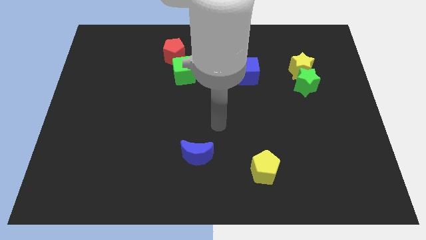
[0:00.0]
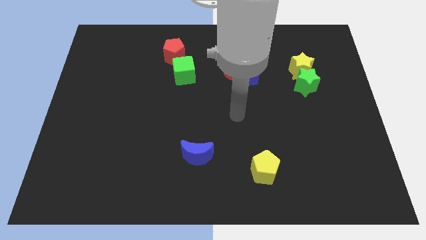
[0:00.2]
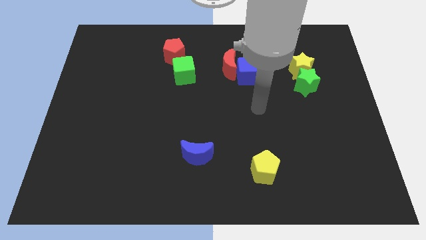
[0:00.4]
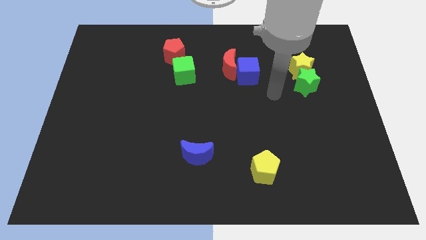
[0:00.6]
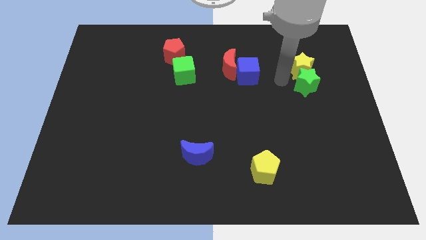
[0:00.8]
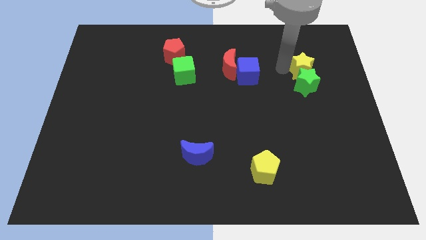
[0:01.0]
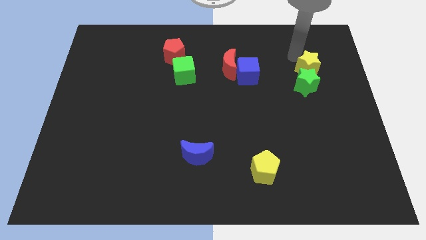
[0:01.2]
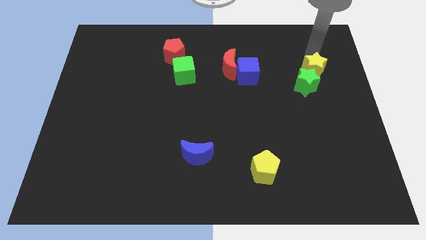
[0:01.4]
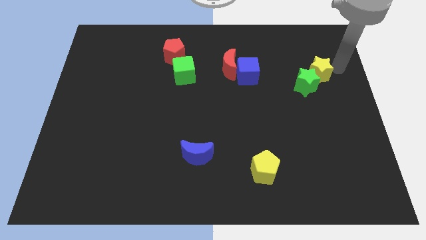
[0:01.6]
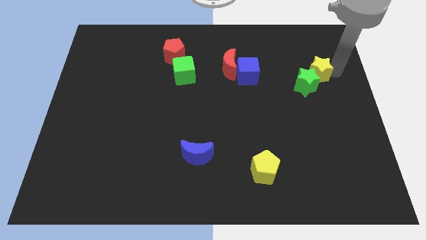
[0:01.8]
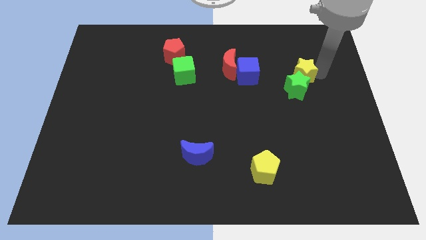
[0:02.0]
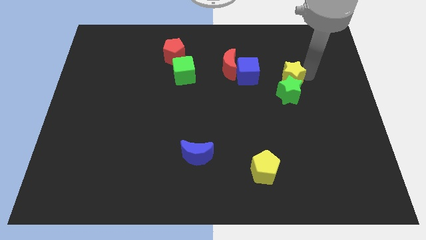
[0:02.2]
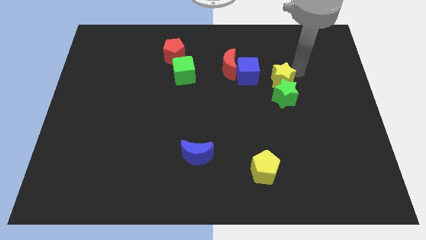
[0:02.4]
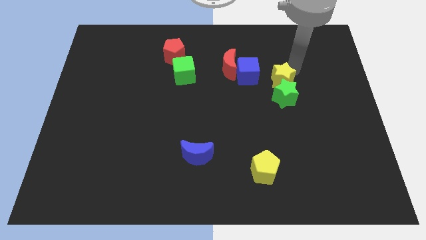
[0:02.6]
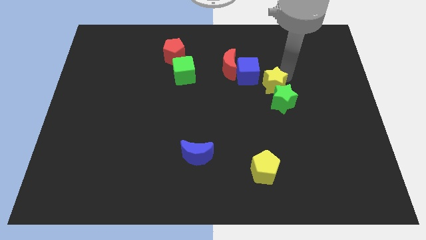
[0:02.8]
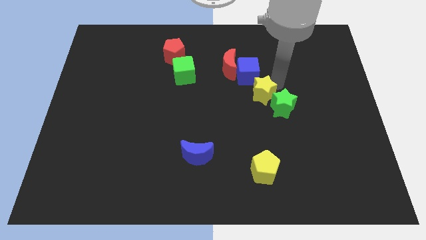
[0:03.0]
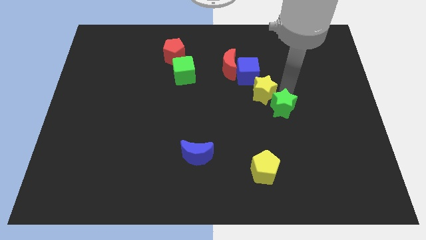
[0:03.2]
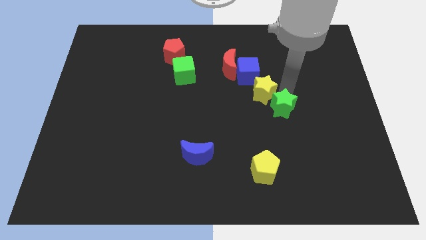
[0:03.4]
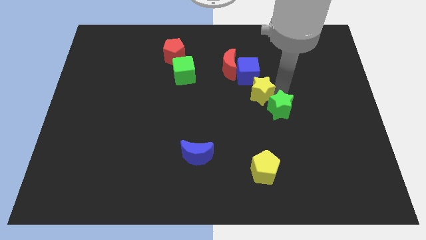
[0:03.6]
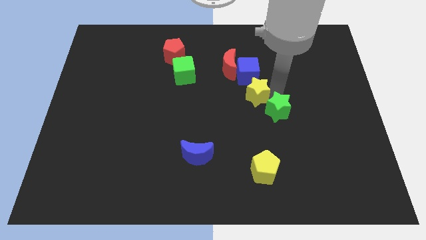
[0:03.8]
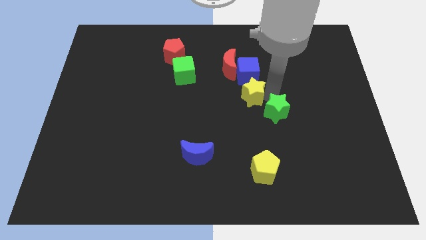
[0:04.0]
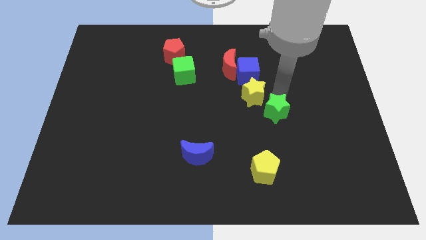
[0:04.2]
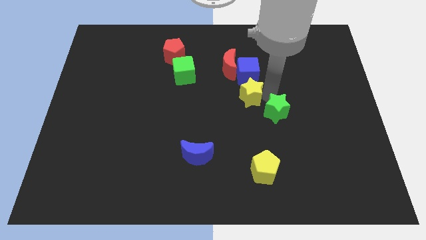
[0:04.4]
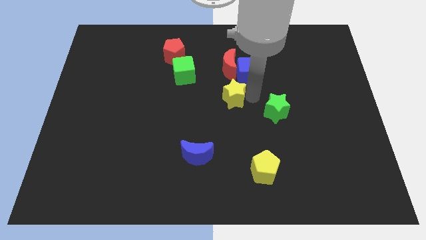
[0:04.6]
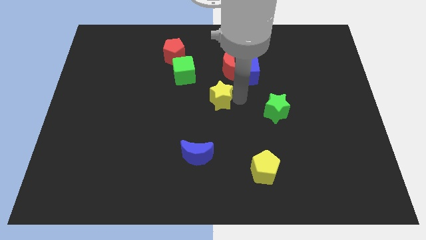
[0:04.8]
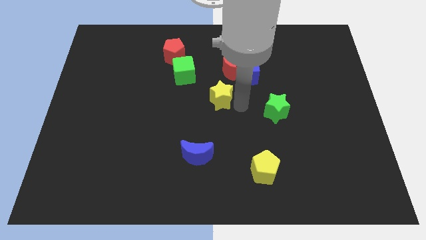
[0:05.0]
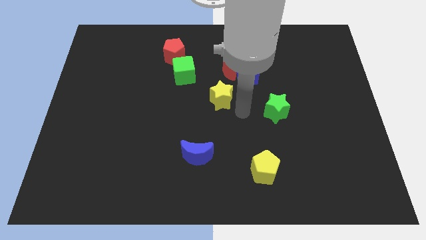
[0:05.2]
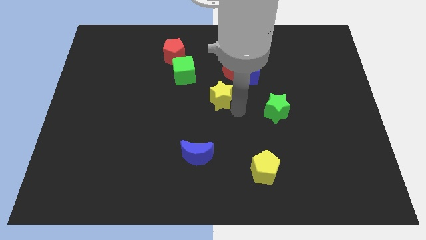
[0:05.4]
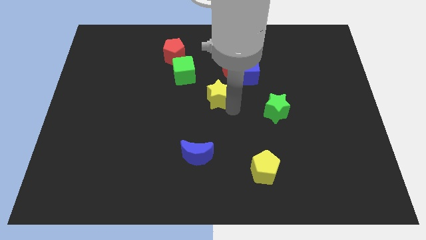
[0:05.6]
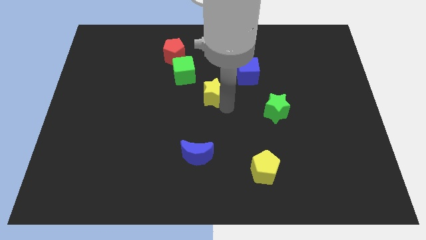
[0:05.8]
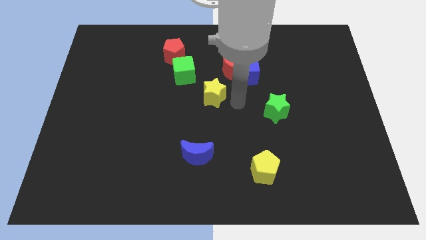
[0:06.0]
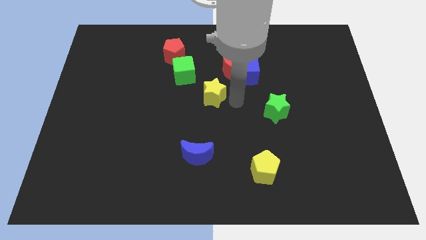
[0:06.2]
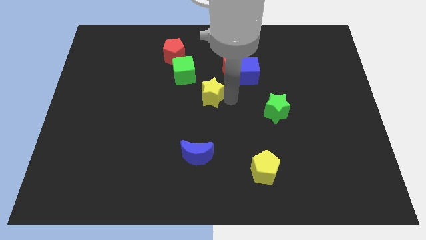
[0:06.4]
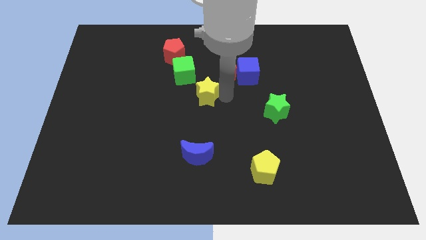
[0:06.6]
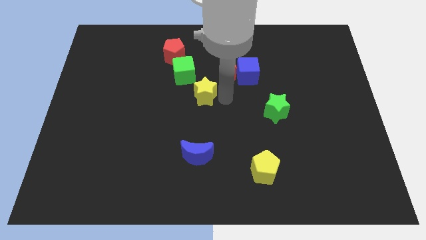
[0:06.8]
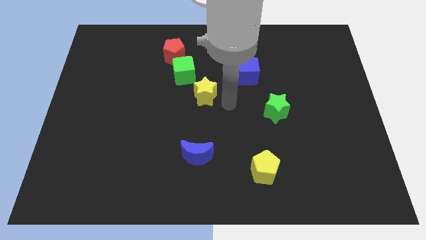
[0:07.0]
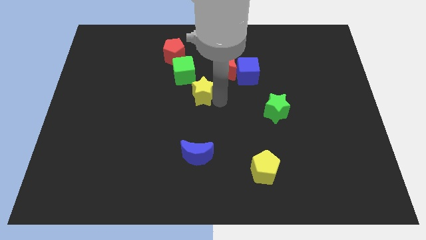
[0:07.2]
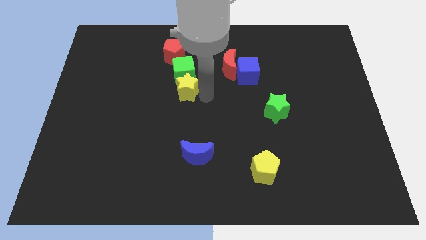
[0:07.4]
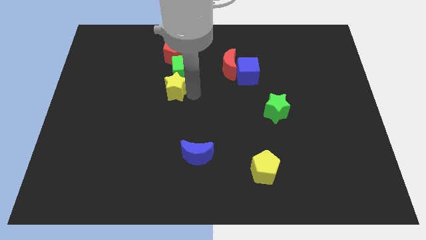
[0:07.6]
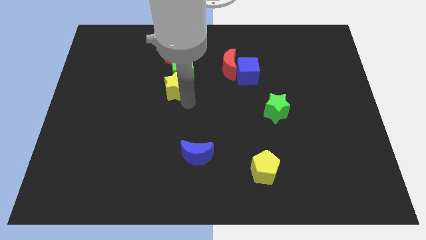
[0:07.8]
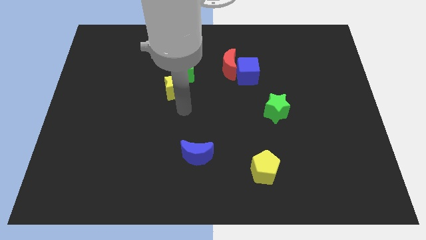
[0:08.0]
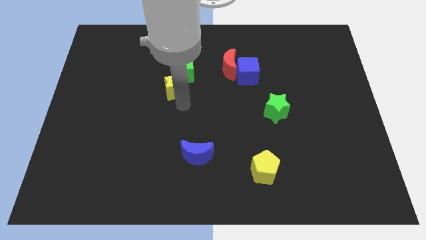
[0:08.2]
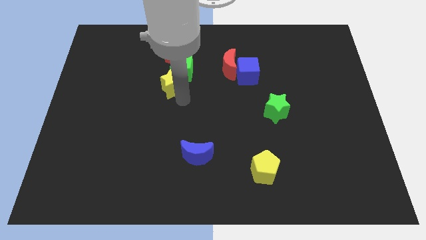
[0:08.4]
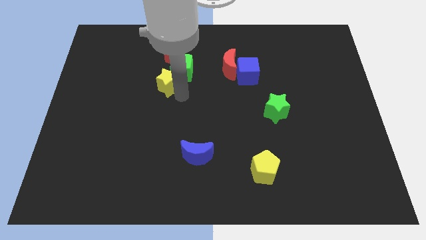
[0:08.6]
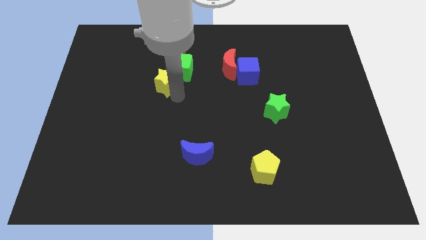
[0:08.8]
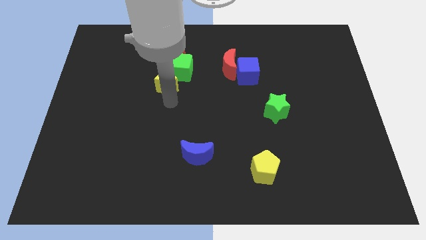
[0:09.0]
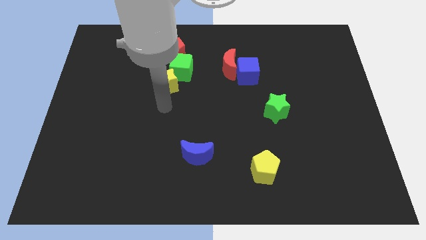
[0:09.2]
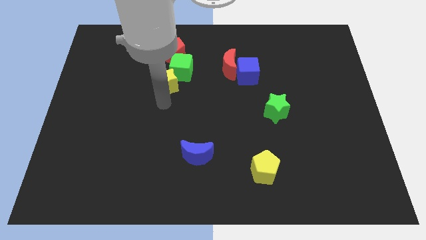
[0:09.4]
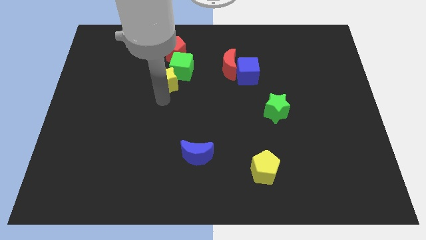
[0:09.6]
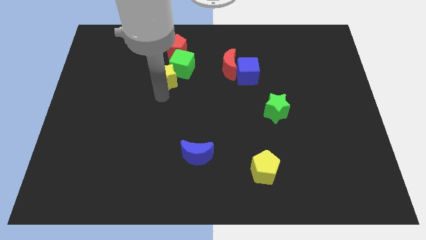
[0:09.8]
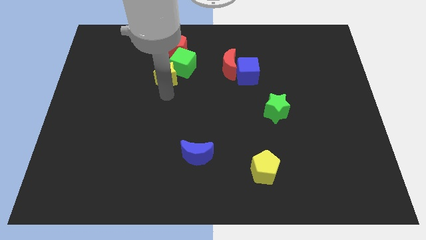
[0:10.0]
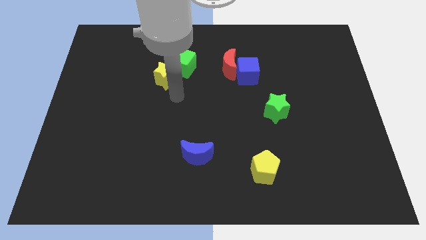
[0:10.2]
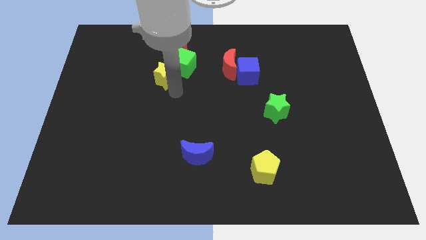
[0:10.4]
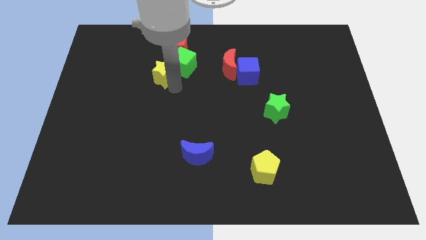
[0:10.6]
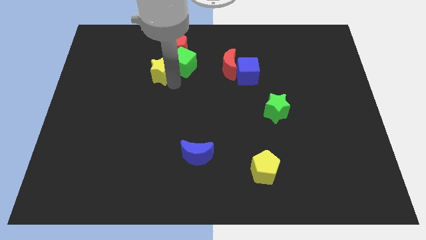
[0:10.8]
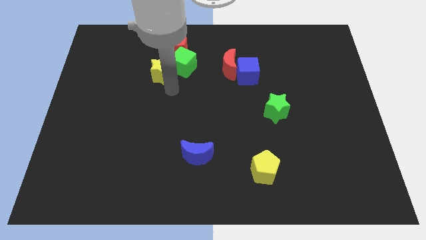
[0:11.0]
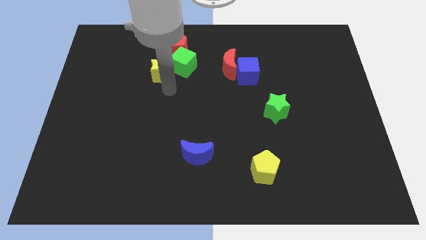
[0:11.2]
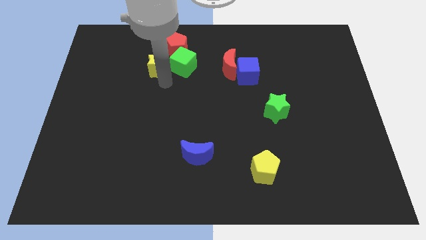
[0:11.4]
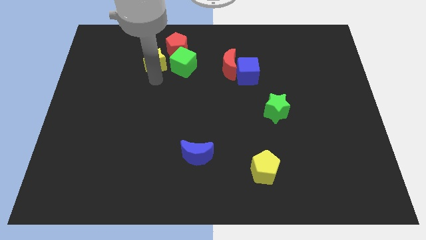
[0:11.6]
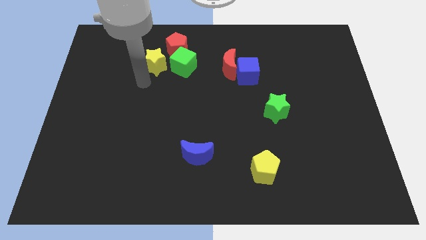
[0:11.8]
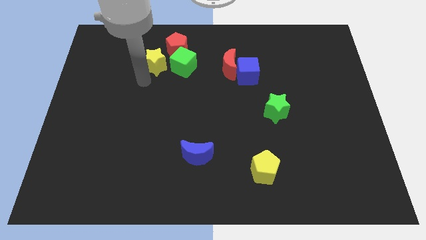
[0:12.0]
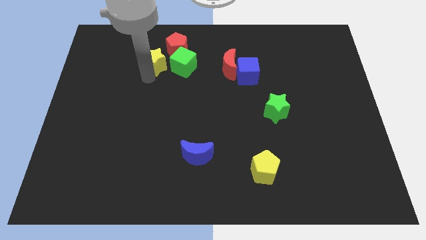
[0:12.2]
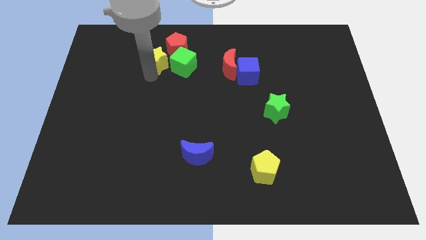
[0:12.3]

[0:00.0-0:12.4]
slide the yellow star to the top left of the green cube

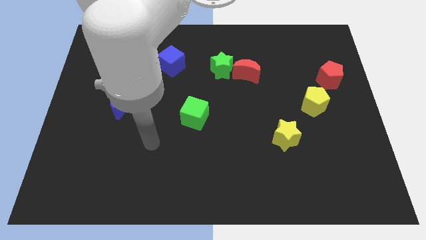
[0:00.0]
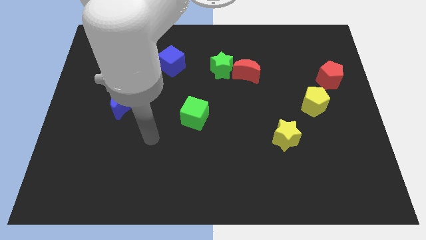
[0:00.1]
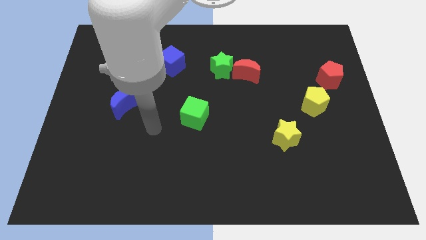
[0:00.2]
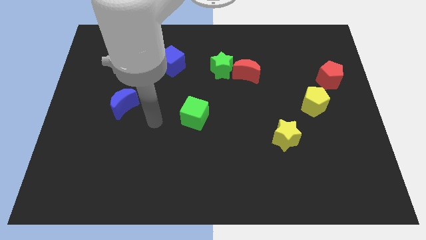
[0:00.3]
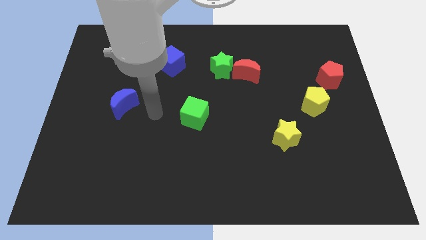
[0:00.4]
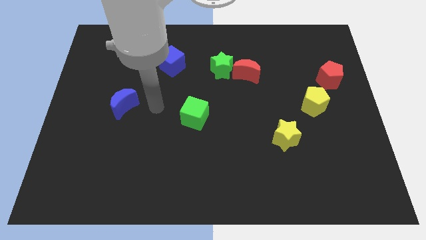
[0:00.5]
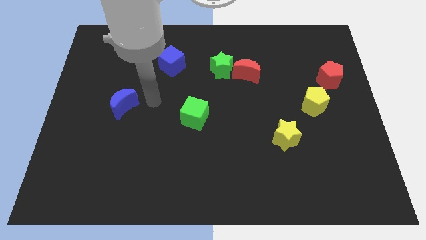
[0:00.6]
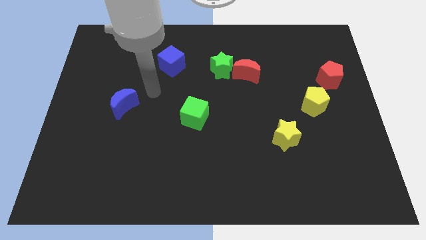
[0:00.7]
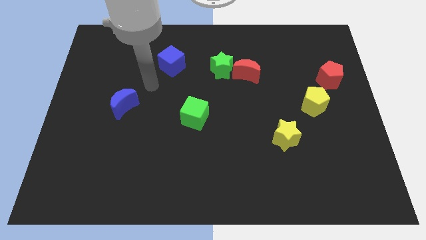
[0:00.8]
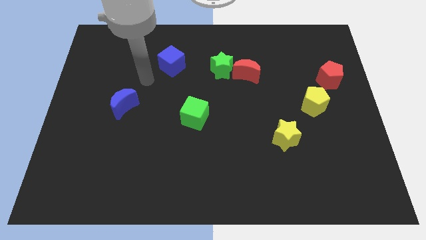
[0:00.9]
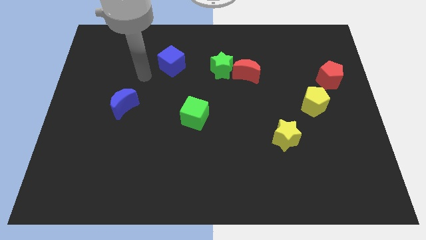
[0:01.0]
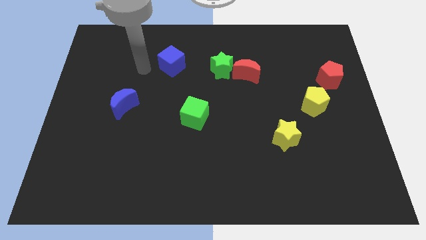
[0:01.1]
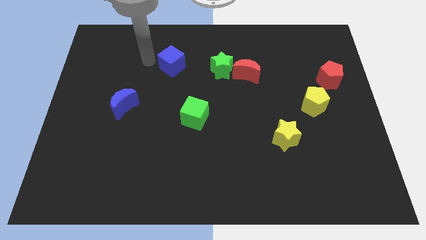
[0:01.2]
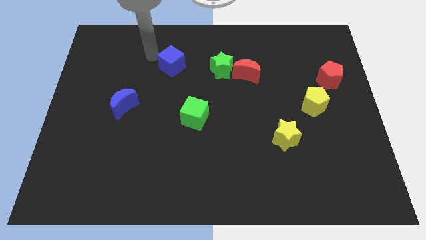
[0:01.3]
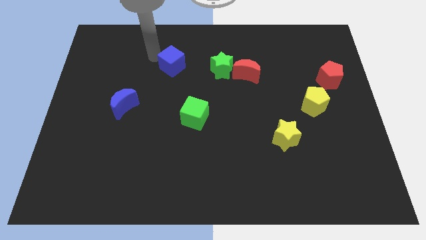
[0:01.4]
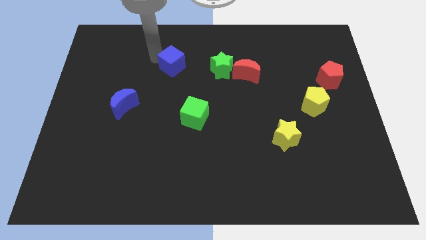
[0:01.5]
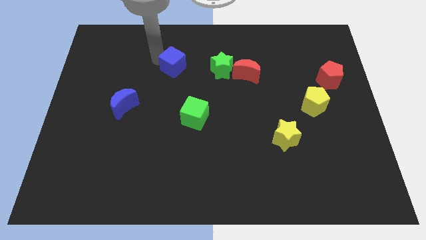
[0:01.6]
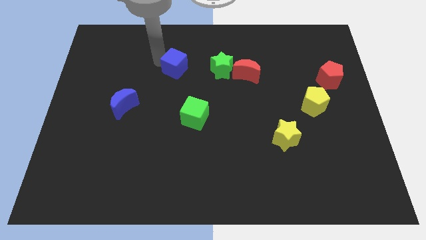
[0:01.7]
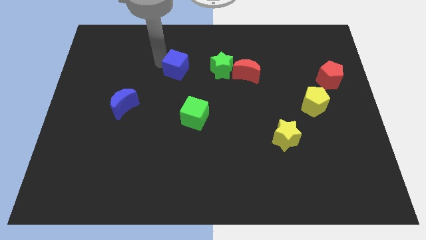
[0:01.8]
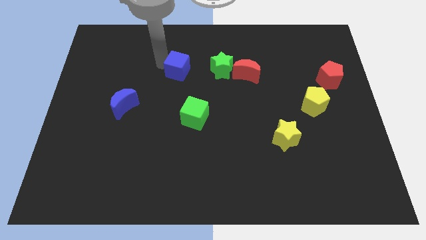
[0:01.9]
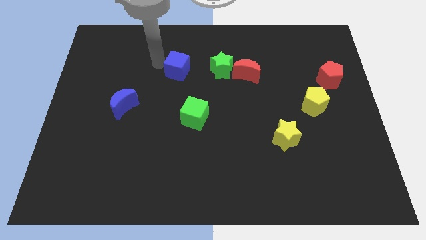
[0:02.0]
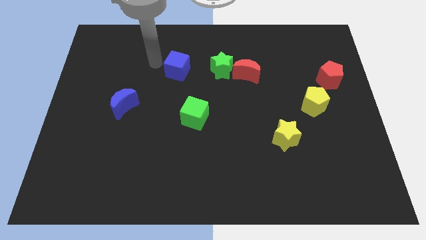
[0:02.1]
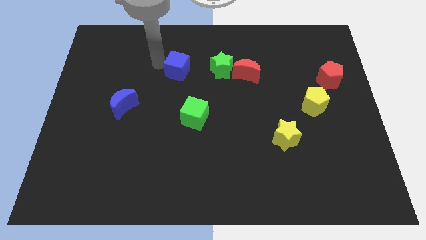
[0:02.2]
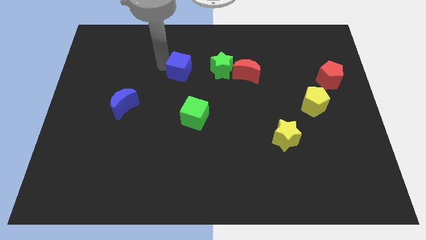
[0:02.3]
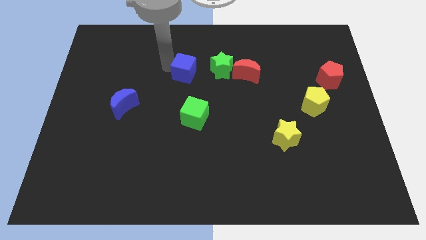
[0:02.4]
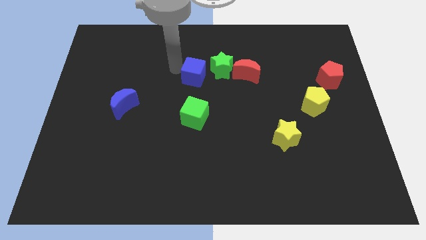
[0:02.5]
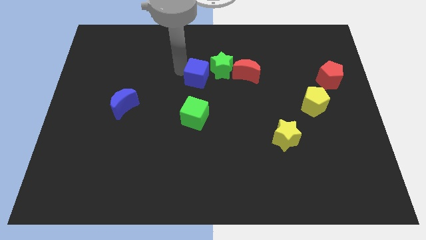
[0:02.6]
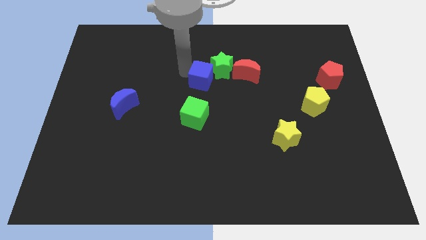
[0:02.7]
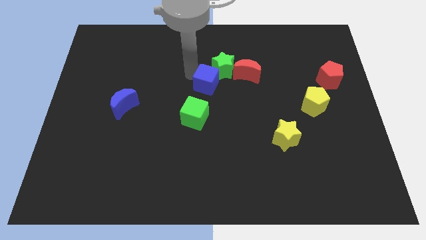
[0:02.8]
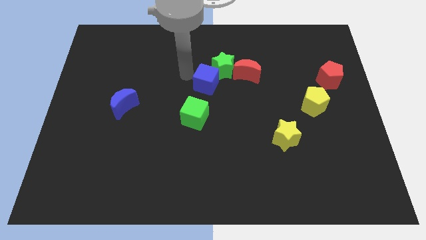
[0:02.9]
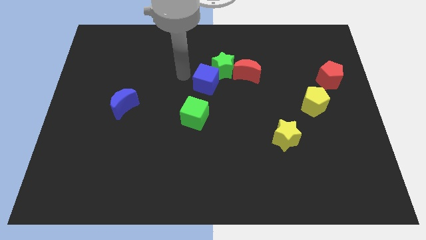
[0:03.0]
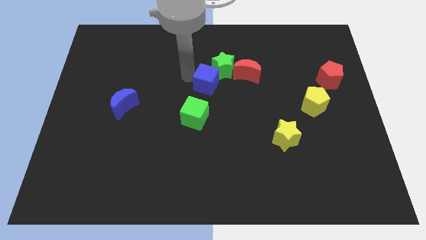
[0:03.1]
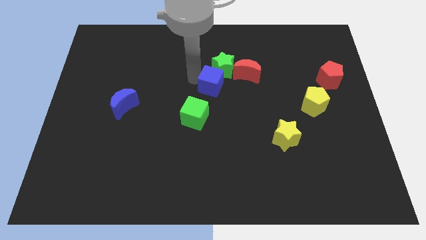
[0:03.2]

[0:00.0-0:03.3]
put the blue cube to the bottom left side of the red moon
